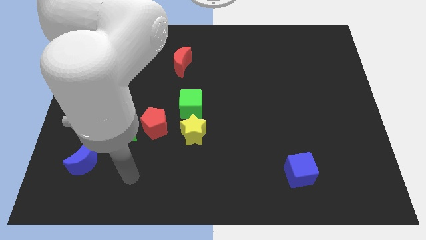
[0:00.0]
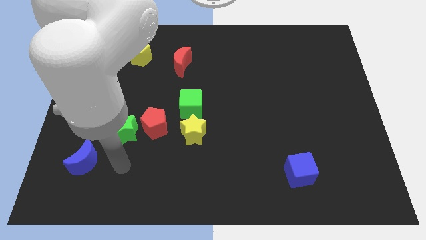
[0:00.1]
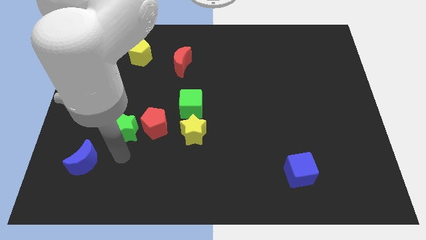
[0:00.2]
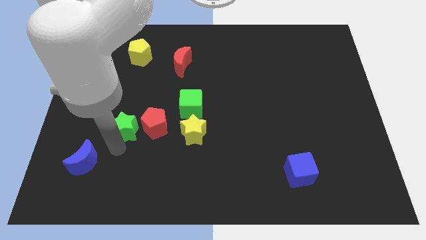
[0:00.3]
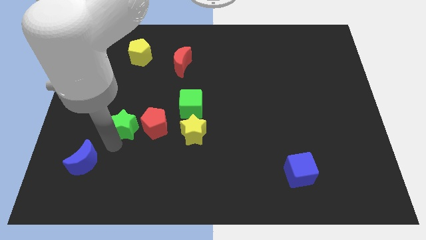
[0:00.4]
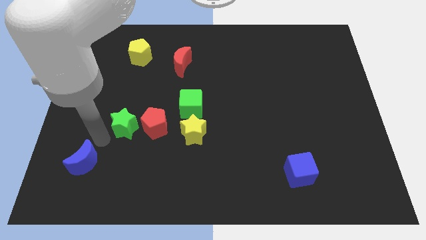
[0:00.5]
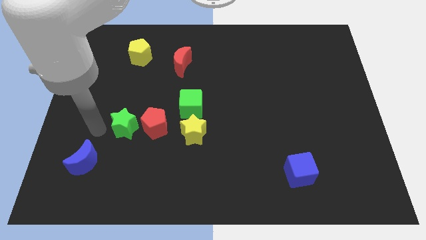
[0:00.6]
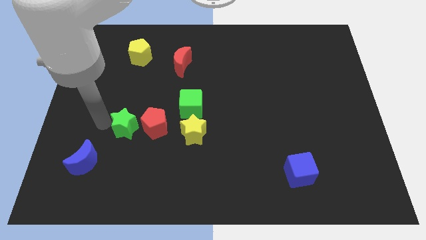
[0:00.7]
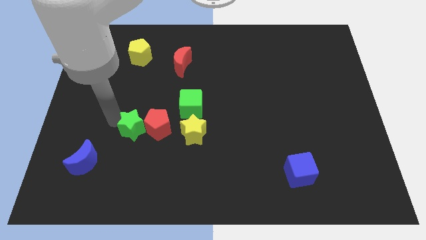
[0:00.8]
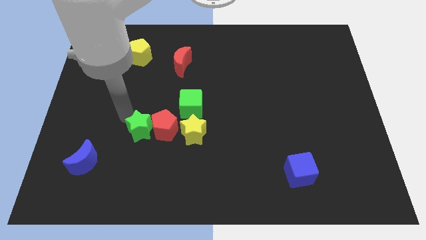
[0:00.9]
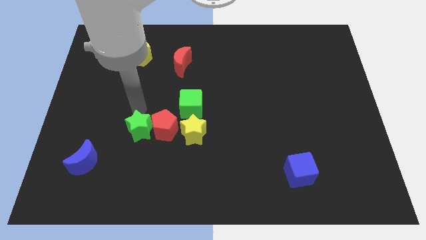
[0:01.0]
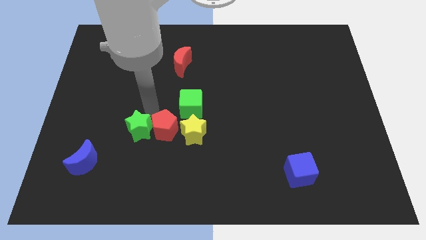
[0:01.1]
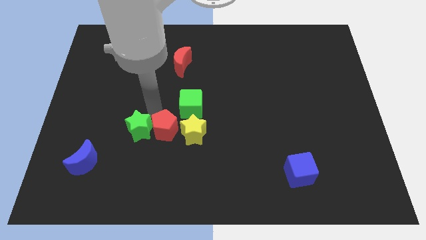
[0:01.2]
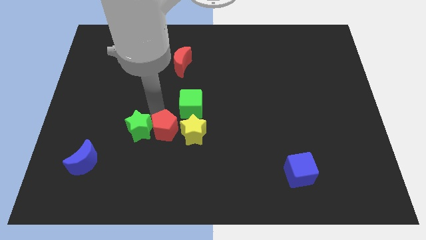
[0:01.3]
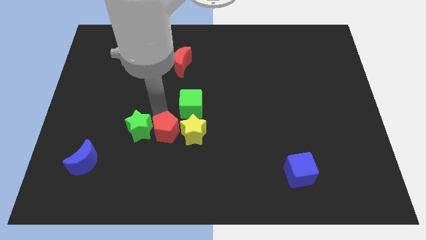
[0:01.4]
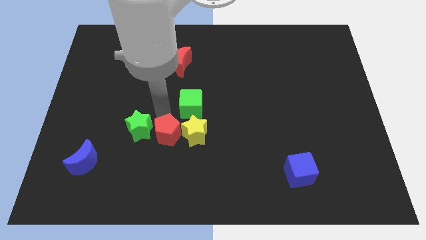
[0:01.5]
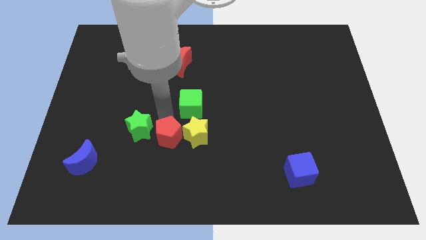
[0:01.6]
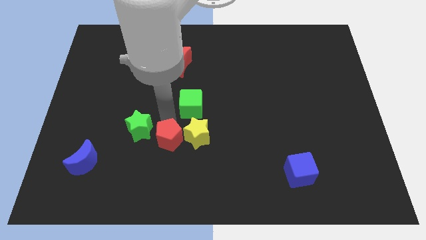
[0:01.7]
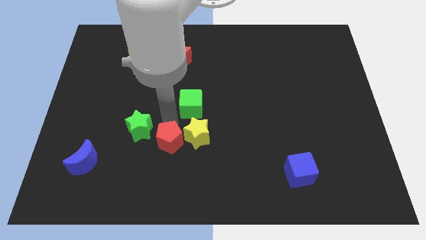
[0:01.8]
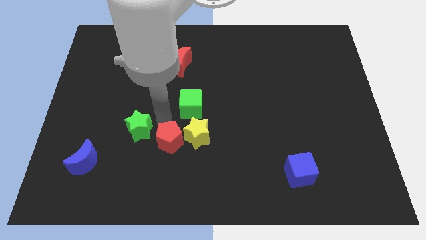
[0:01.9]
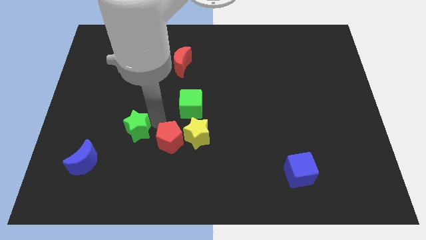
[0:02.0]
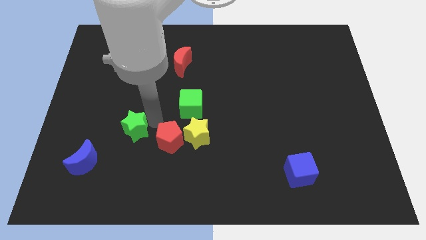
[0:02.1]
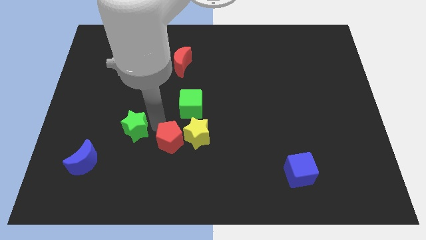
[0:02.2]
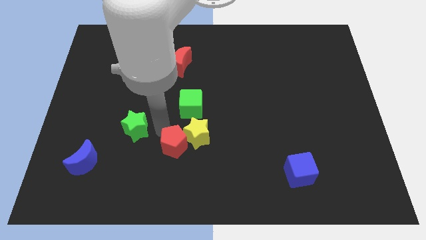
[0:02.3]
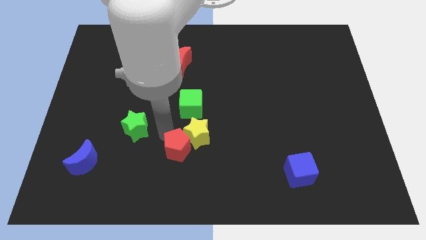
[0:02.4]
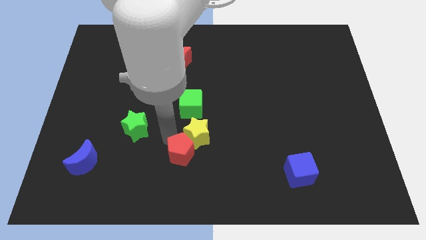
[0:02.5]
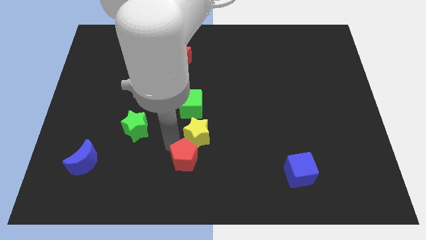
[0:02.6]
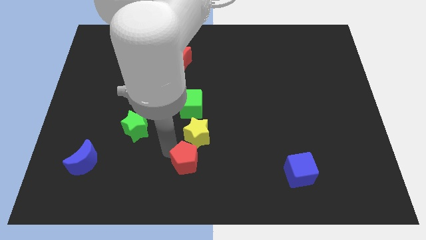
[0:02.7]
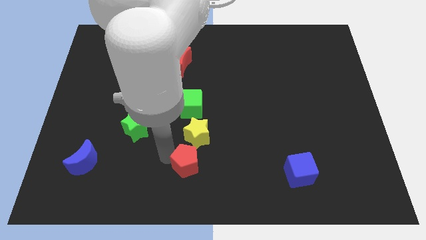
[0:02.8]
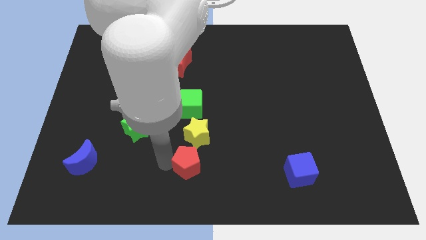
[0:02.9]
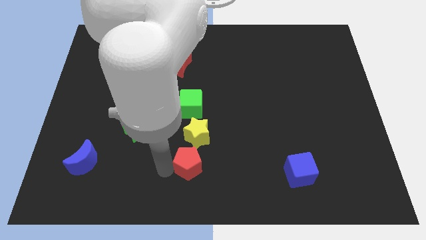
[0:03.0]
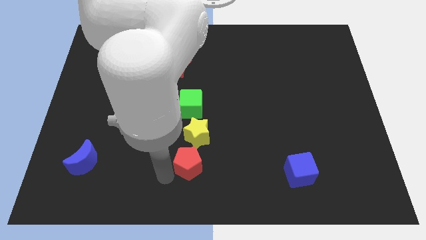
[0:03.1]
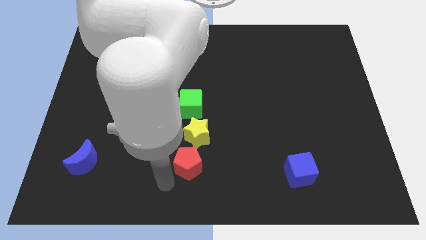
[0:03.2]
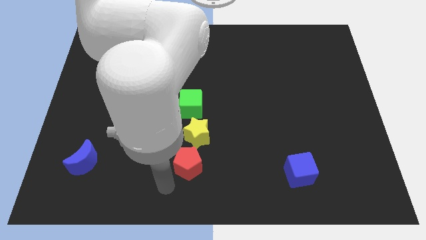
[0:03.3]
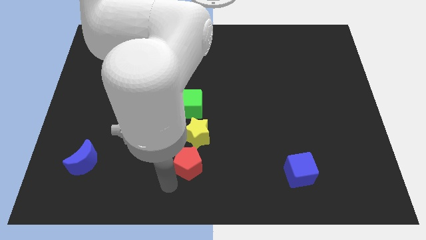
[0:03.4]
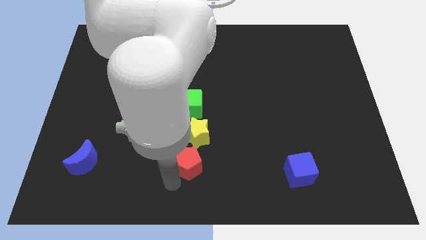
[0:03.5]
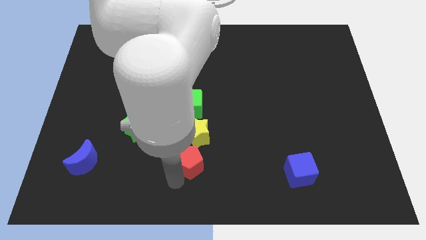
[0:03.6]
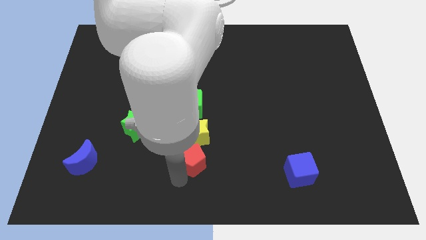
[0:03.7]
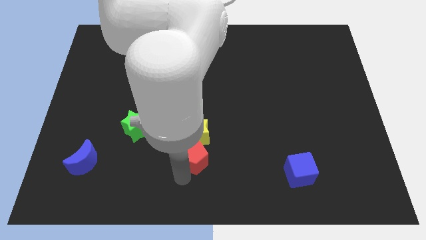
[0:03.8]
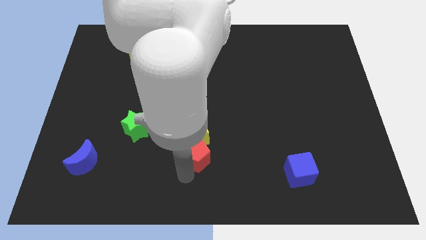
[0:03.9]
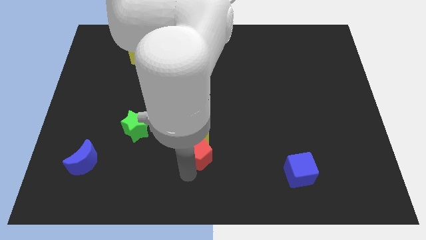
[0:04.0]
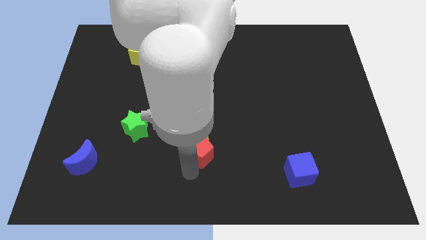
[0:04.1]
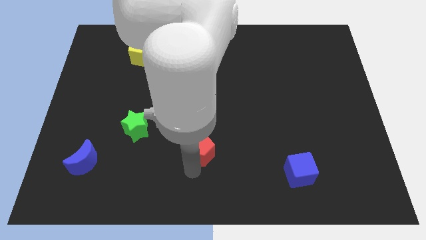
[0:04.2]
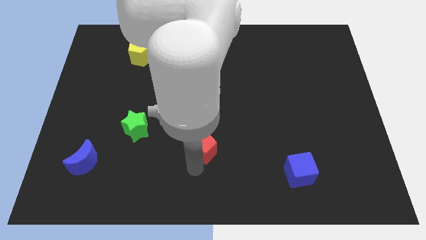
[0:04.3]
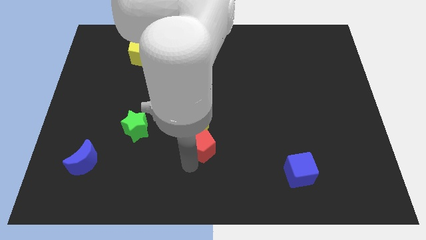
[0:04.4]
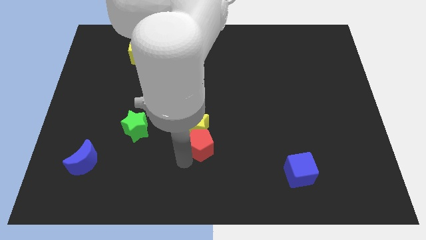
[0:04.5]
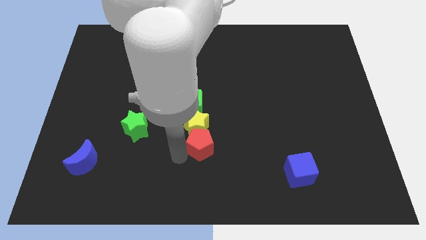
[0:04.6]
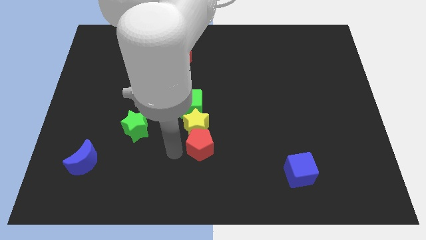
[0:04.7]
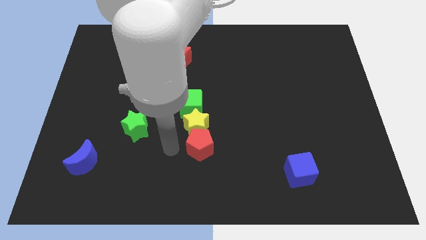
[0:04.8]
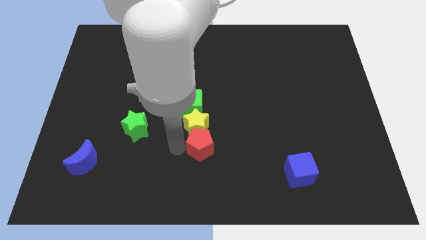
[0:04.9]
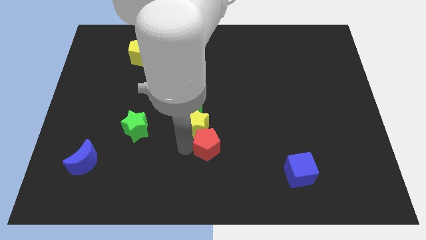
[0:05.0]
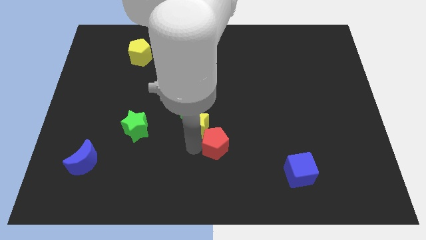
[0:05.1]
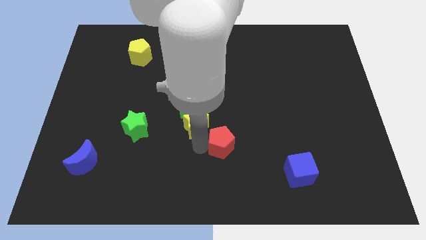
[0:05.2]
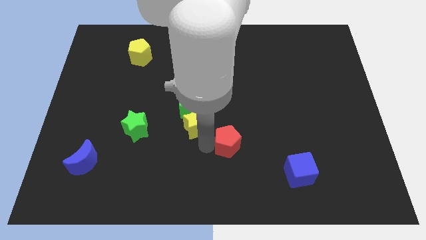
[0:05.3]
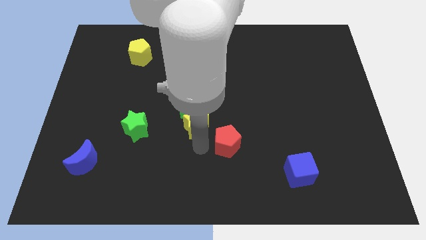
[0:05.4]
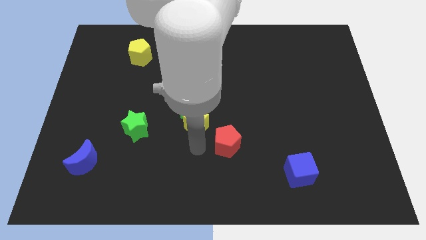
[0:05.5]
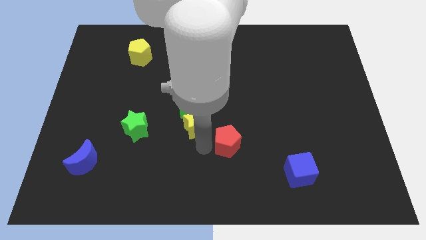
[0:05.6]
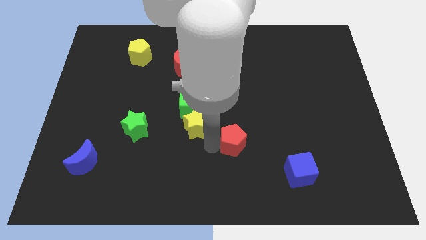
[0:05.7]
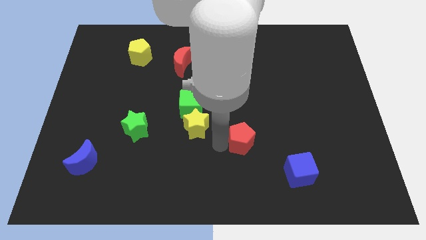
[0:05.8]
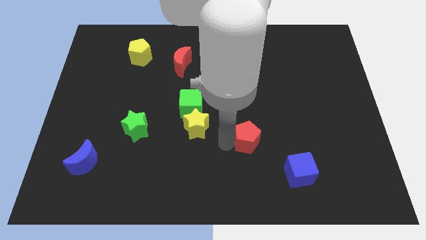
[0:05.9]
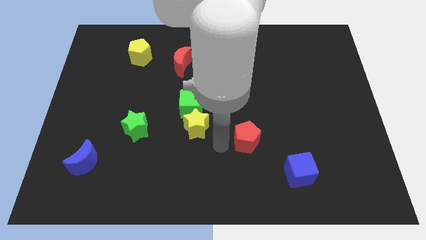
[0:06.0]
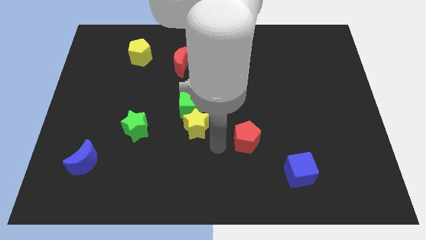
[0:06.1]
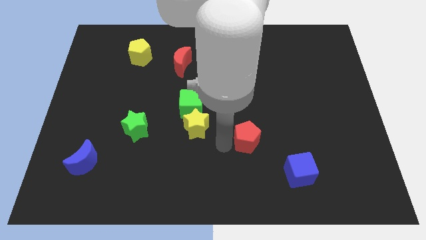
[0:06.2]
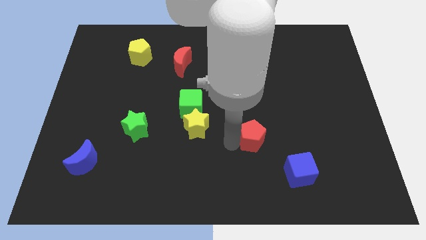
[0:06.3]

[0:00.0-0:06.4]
push the red pentagon to the right

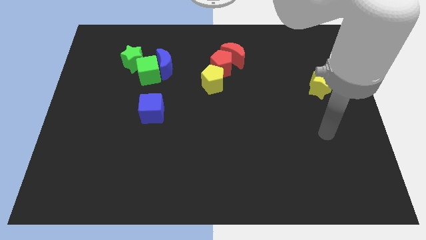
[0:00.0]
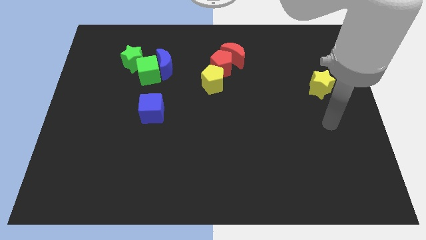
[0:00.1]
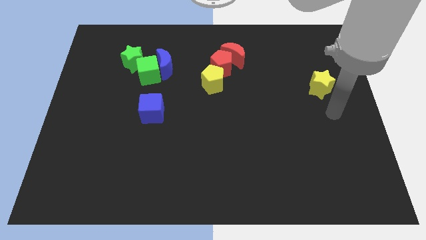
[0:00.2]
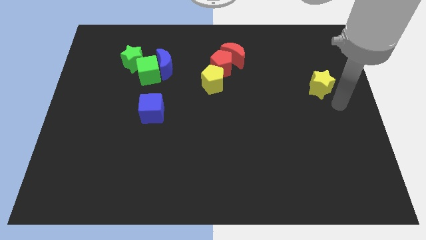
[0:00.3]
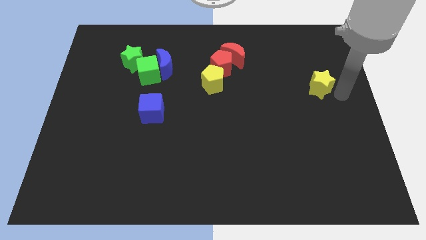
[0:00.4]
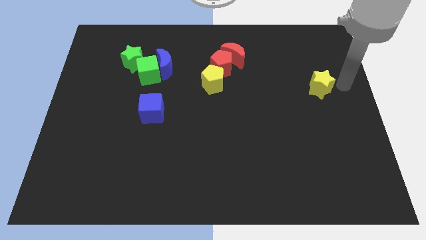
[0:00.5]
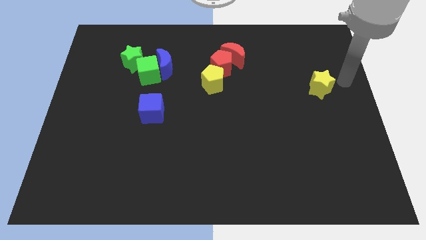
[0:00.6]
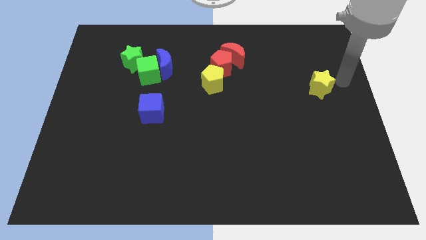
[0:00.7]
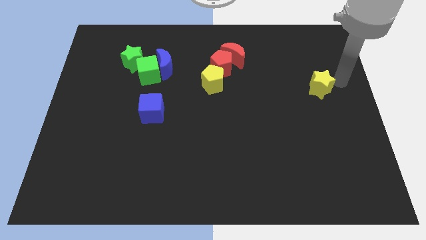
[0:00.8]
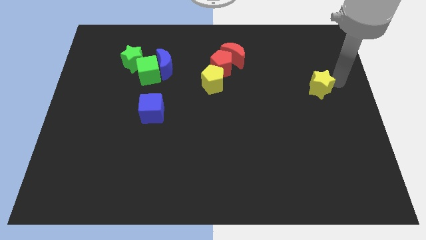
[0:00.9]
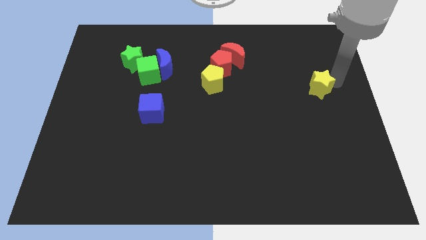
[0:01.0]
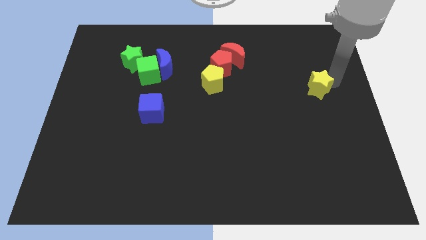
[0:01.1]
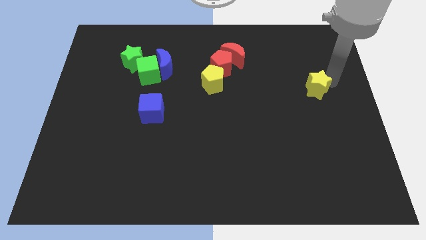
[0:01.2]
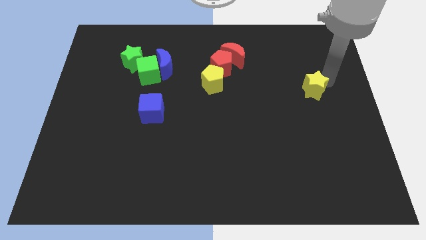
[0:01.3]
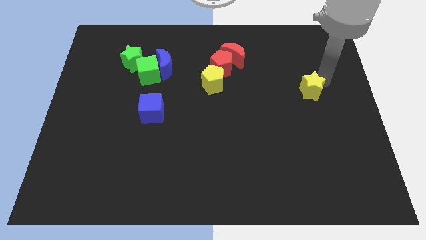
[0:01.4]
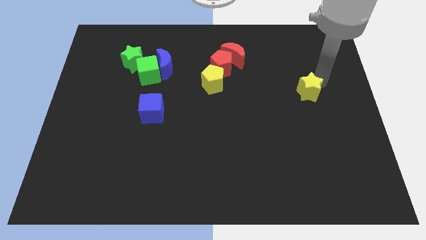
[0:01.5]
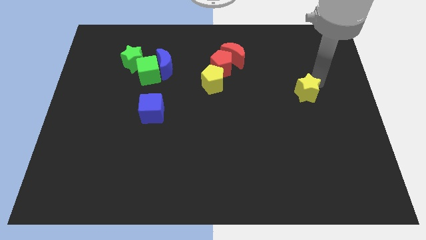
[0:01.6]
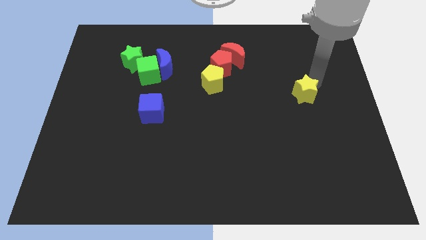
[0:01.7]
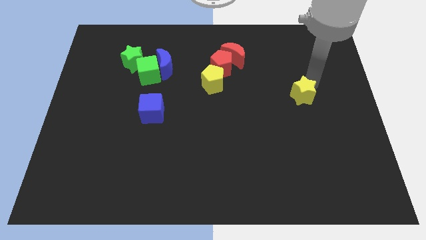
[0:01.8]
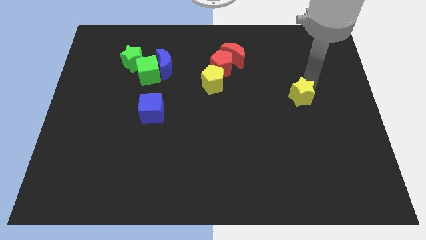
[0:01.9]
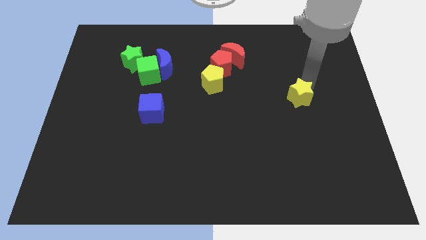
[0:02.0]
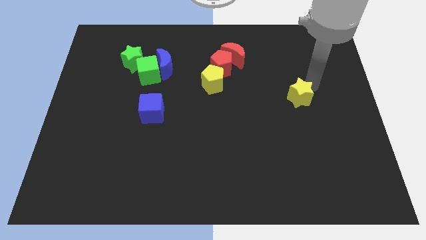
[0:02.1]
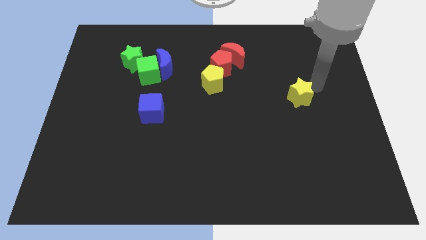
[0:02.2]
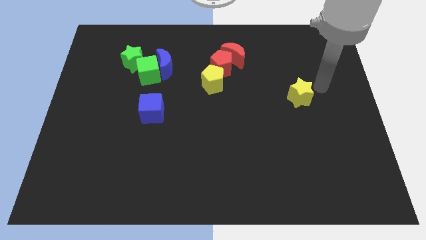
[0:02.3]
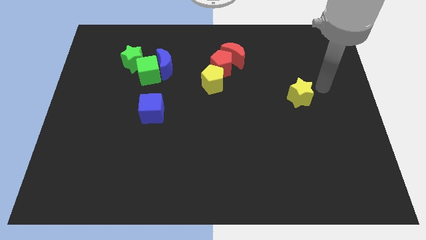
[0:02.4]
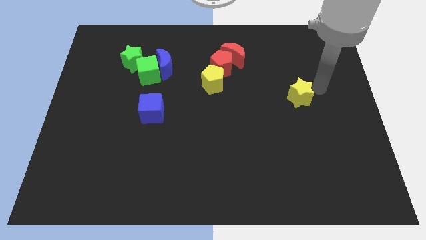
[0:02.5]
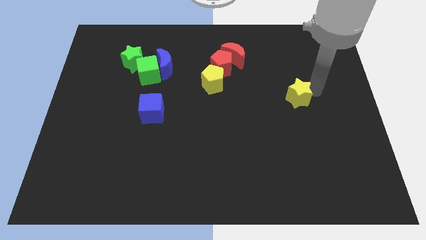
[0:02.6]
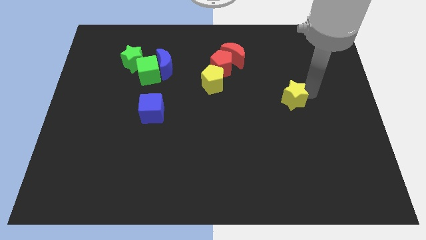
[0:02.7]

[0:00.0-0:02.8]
push the yellow star a little bit down and then left
